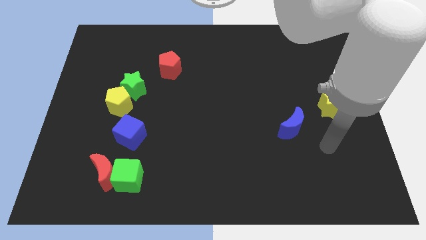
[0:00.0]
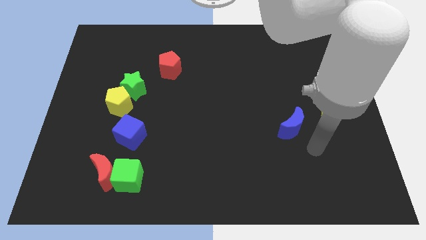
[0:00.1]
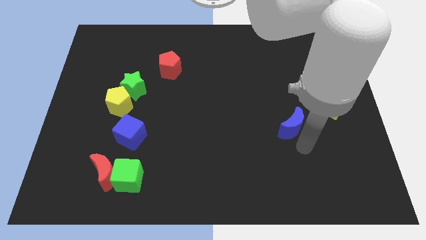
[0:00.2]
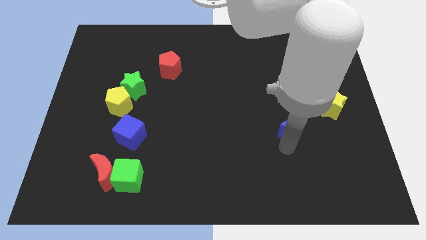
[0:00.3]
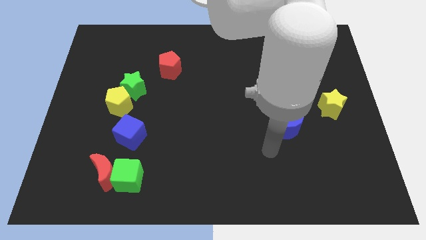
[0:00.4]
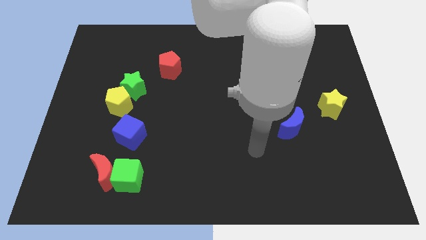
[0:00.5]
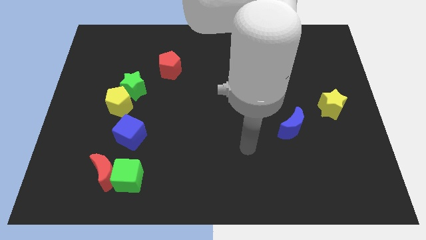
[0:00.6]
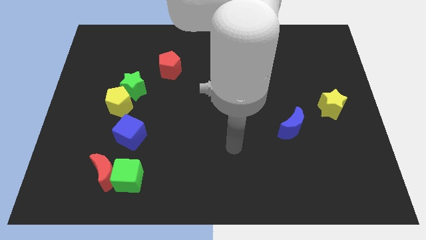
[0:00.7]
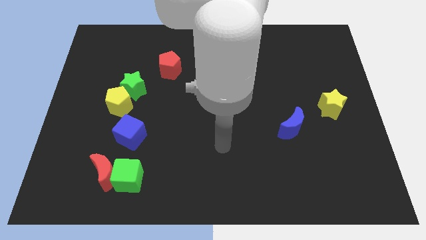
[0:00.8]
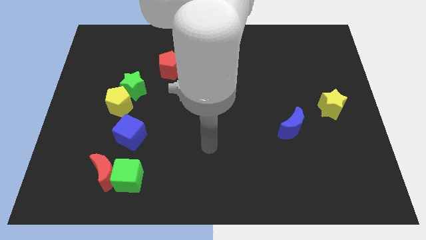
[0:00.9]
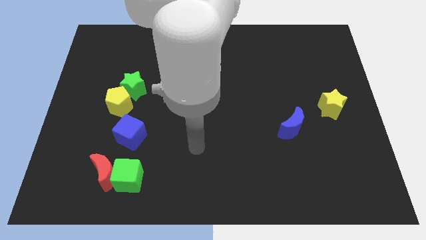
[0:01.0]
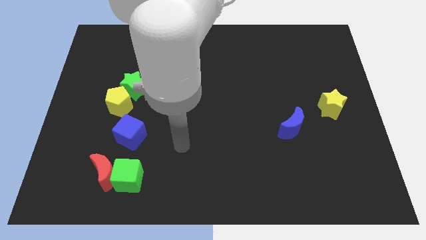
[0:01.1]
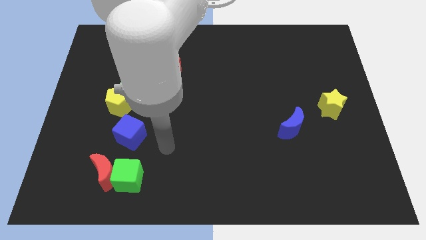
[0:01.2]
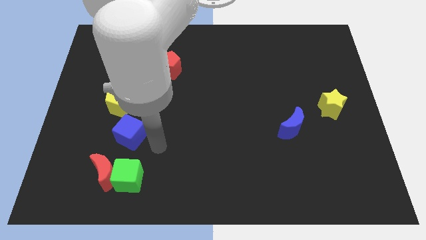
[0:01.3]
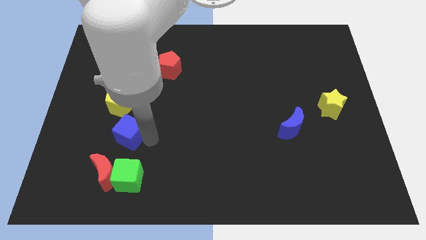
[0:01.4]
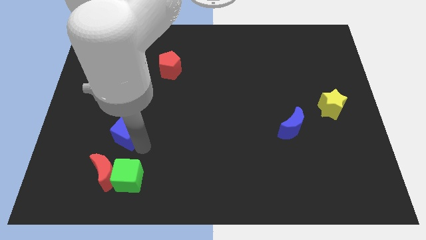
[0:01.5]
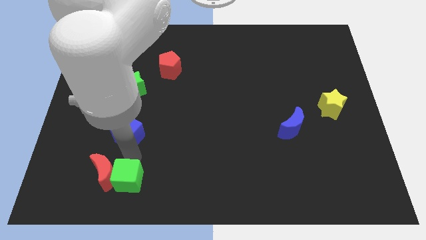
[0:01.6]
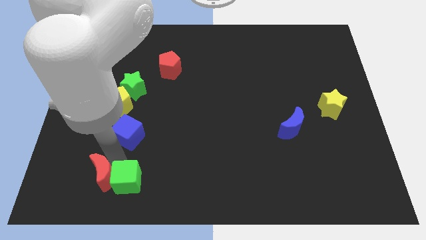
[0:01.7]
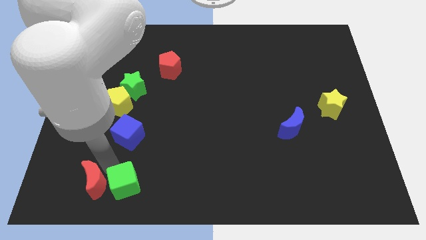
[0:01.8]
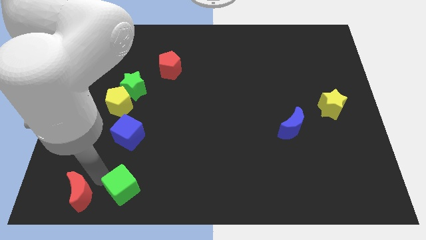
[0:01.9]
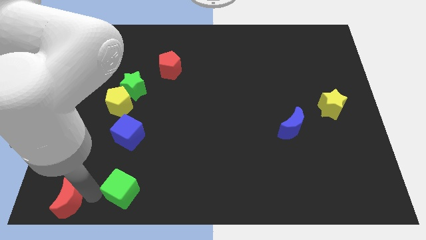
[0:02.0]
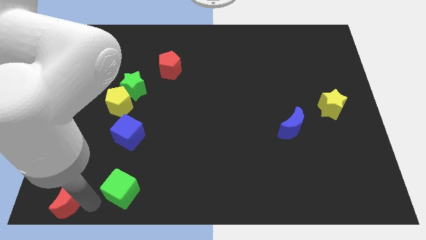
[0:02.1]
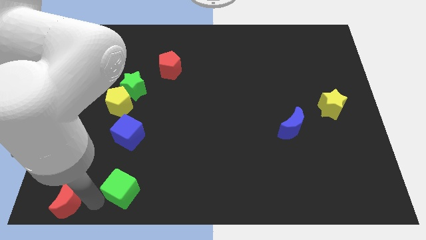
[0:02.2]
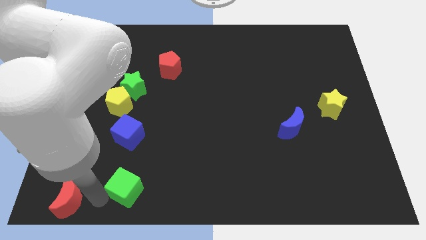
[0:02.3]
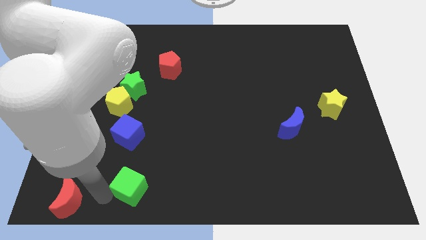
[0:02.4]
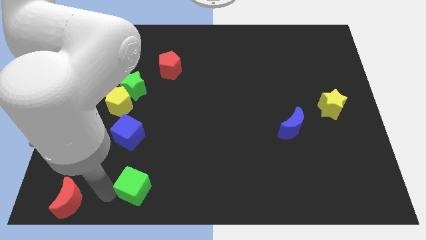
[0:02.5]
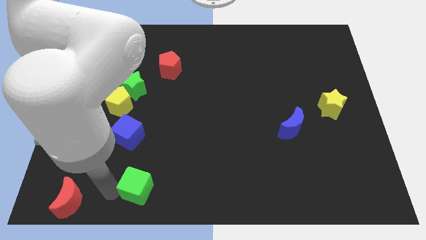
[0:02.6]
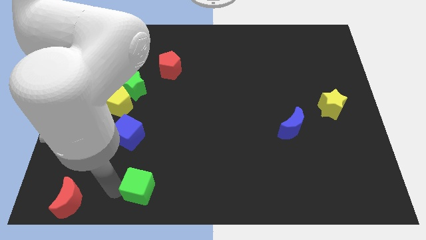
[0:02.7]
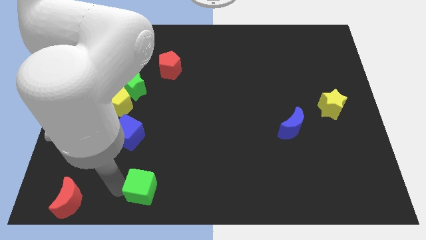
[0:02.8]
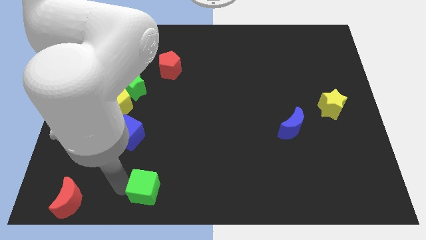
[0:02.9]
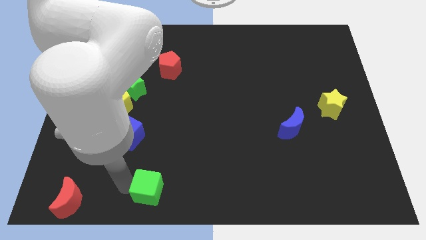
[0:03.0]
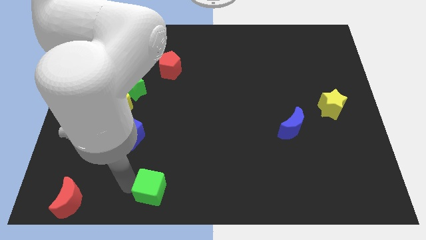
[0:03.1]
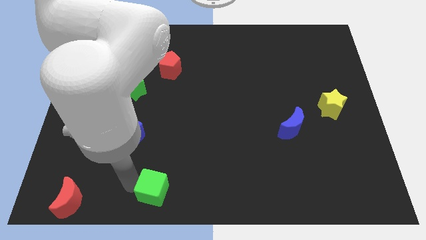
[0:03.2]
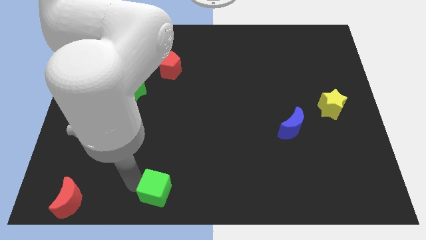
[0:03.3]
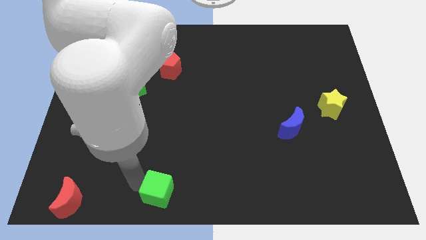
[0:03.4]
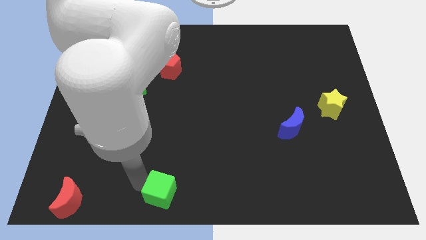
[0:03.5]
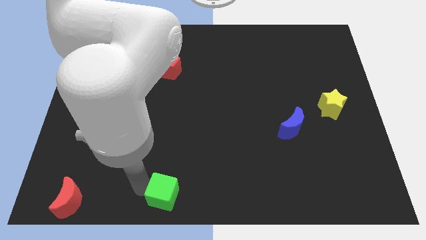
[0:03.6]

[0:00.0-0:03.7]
push the green cube somewhat right

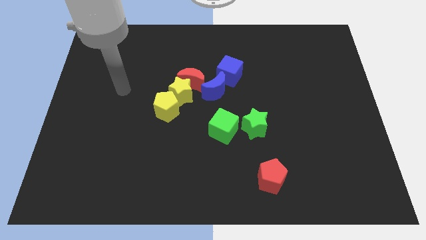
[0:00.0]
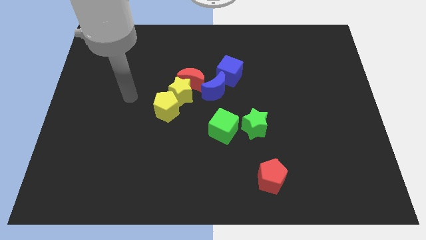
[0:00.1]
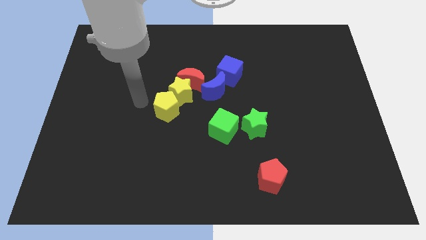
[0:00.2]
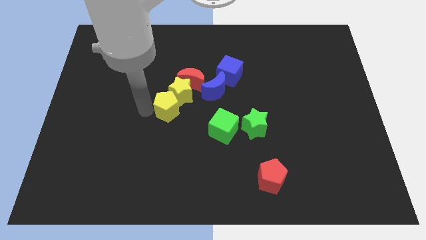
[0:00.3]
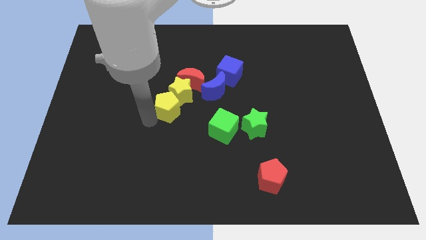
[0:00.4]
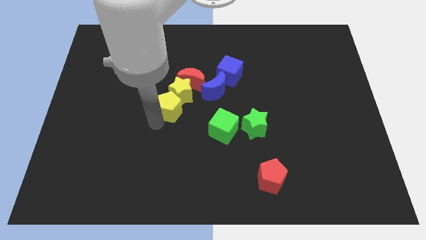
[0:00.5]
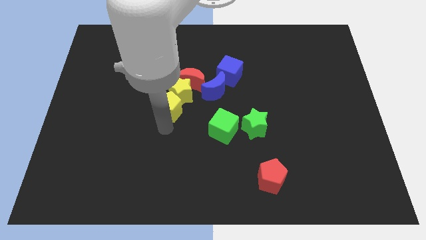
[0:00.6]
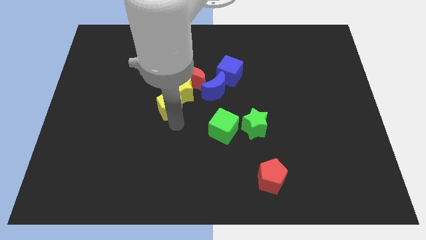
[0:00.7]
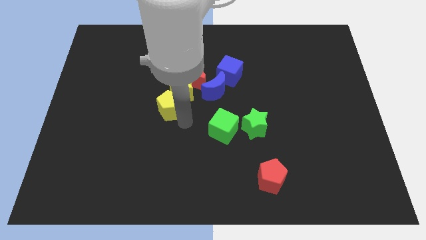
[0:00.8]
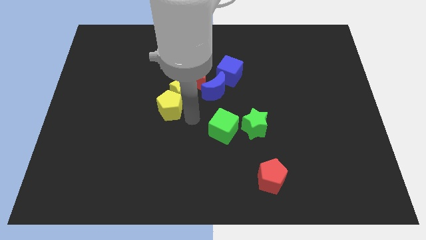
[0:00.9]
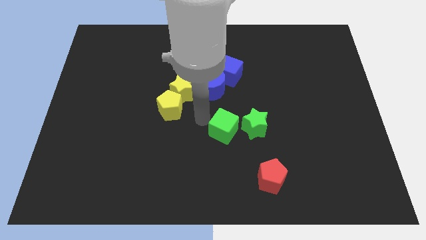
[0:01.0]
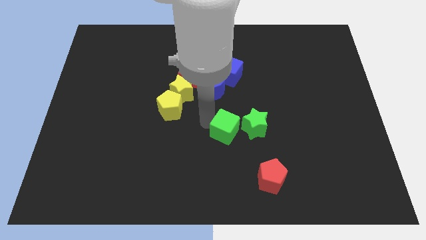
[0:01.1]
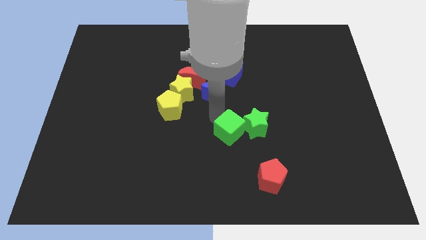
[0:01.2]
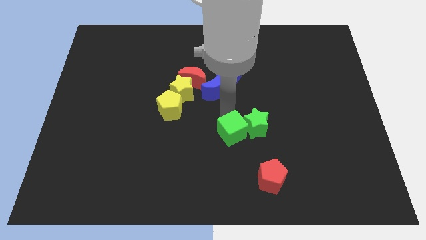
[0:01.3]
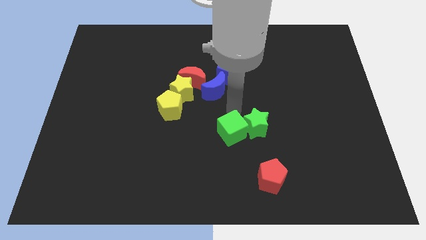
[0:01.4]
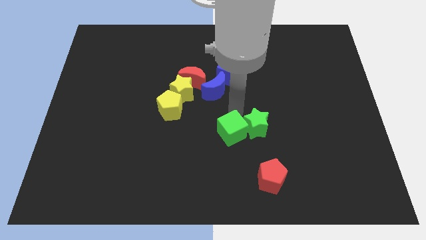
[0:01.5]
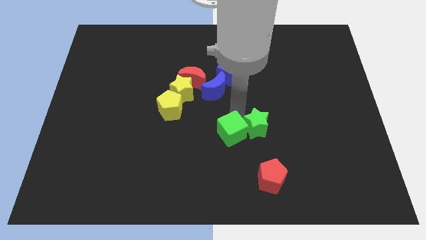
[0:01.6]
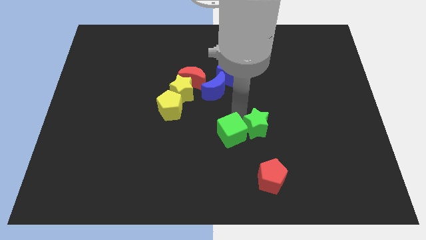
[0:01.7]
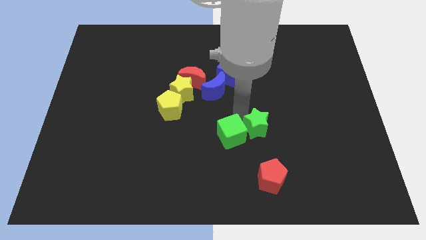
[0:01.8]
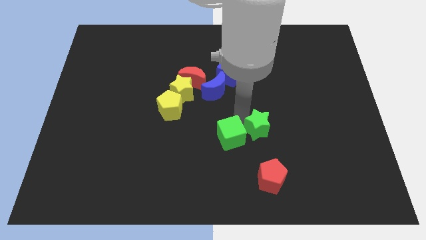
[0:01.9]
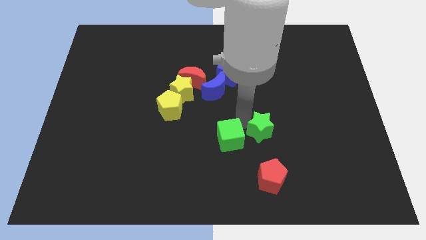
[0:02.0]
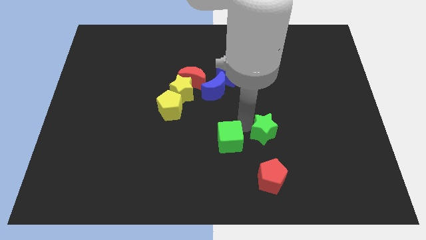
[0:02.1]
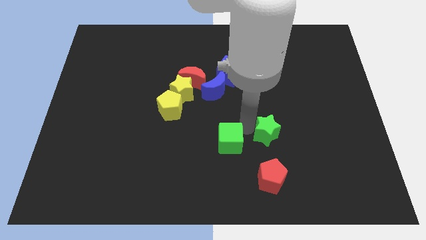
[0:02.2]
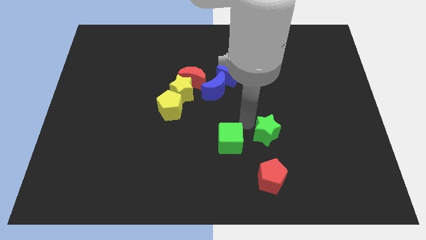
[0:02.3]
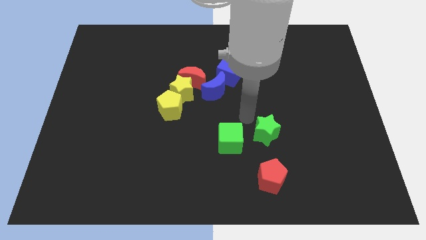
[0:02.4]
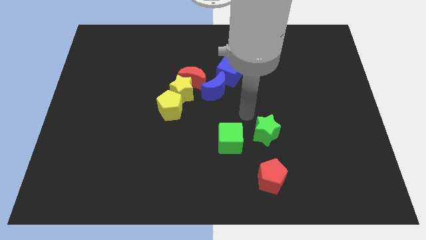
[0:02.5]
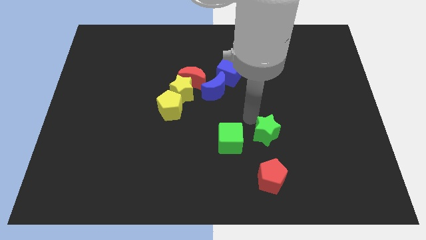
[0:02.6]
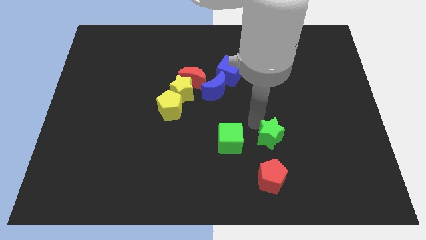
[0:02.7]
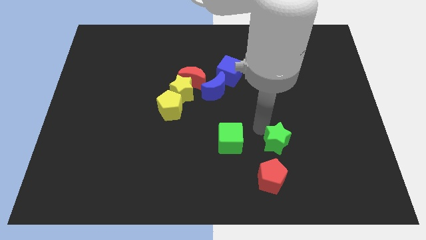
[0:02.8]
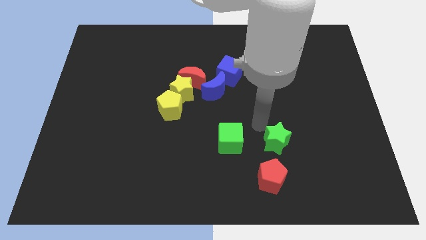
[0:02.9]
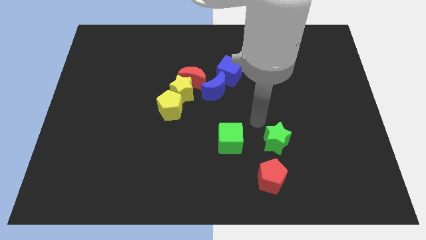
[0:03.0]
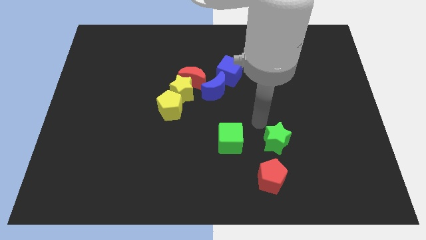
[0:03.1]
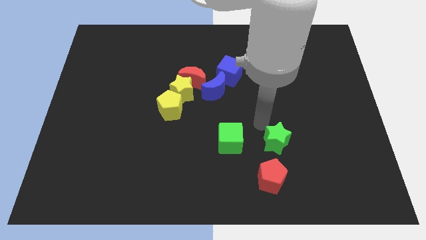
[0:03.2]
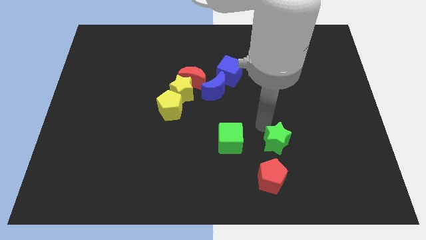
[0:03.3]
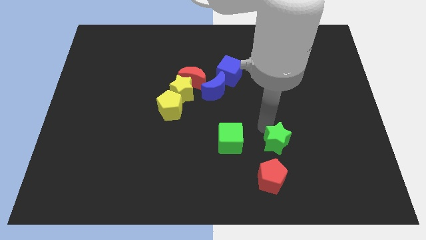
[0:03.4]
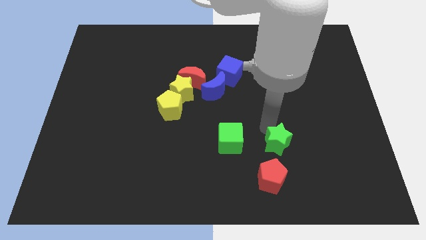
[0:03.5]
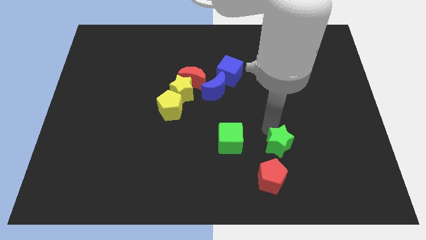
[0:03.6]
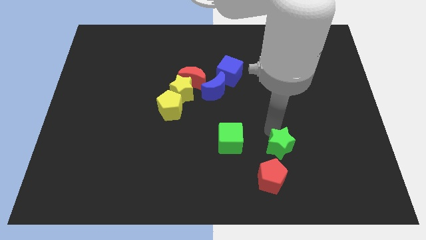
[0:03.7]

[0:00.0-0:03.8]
push the green star somewhat down and right

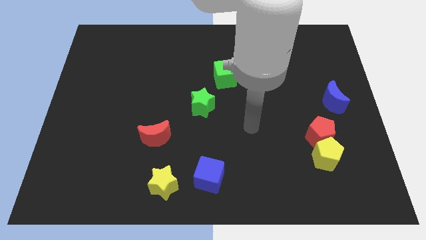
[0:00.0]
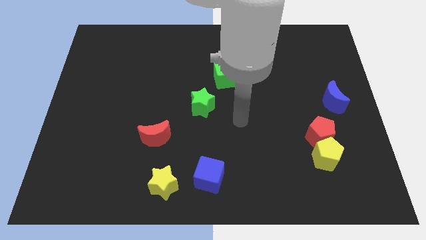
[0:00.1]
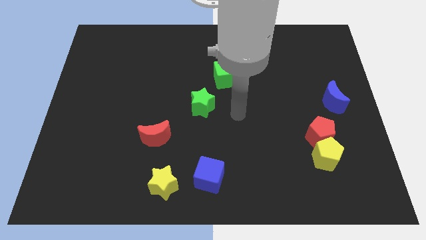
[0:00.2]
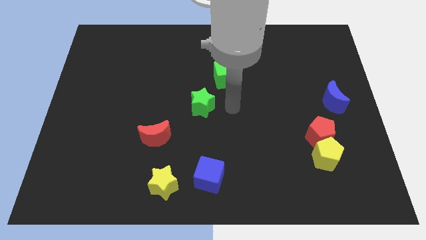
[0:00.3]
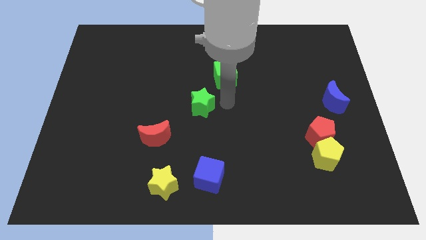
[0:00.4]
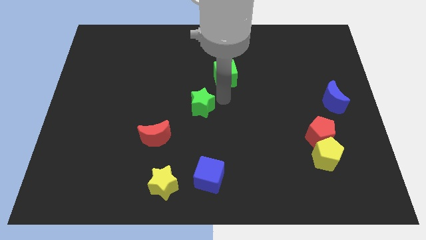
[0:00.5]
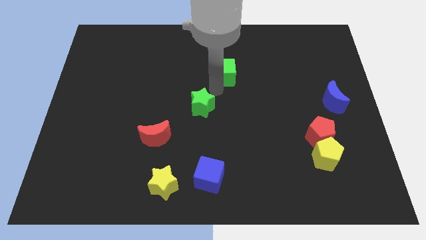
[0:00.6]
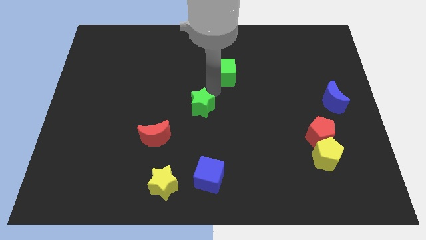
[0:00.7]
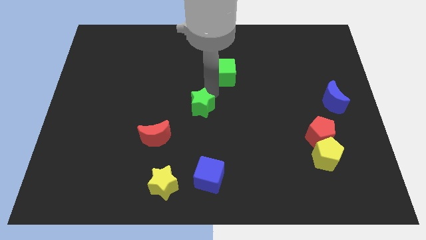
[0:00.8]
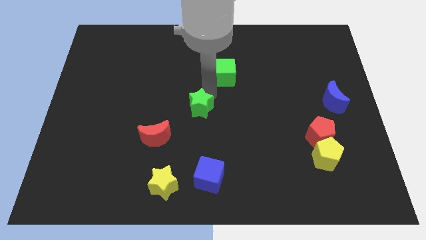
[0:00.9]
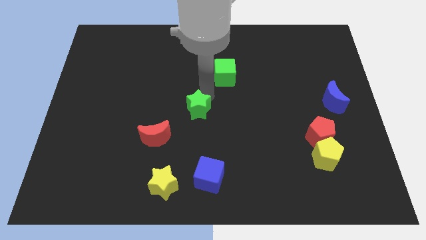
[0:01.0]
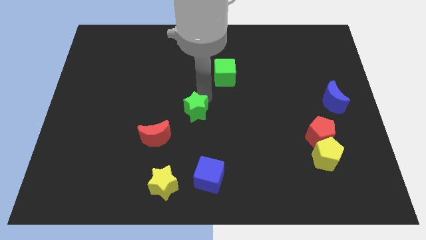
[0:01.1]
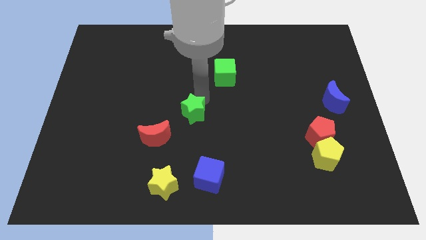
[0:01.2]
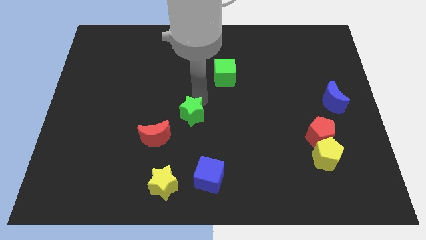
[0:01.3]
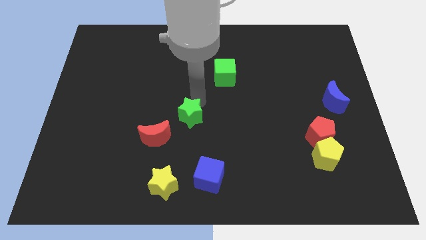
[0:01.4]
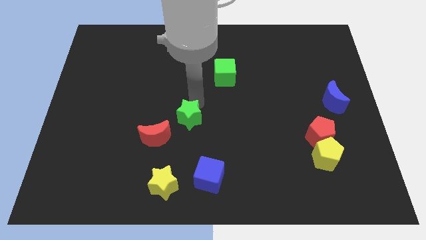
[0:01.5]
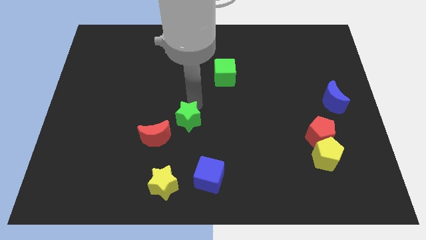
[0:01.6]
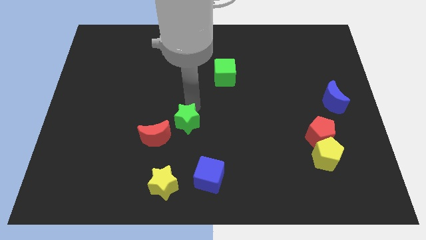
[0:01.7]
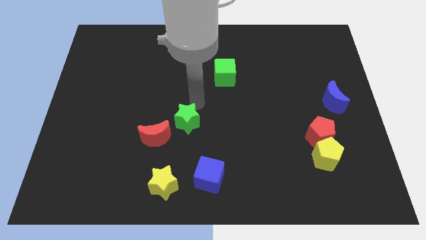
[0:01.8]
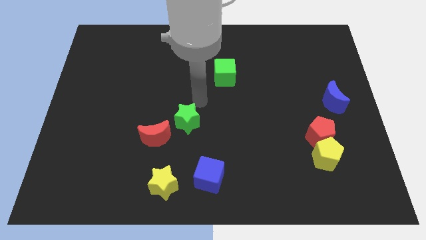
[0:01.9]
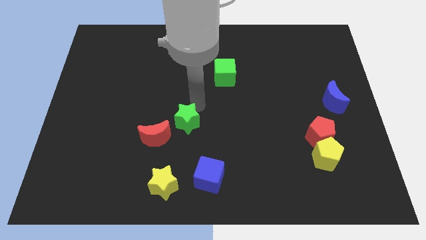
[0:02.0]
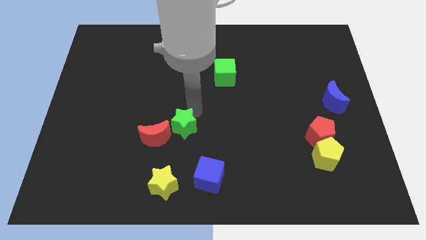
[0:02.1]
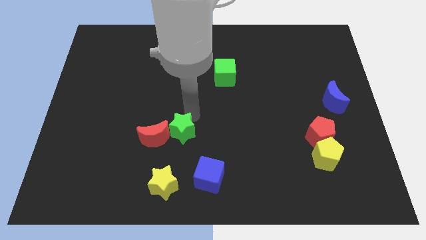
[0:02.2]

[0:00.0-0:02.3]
slightly slide the green star diagonally down and left
